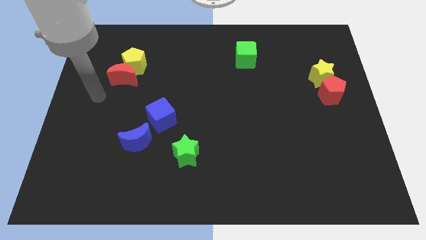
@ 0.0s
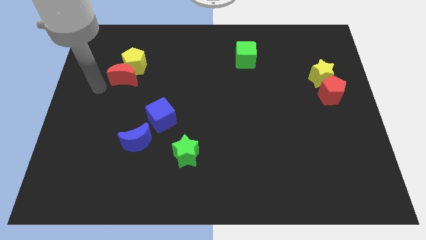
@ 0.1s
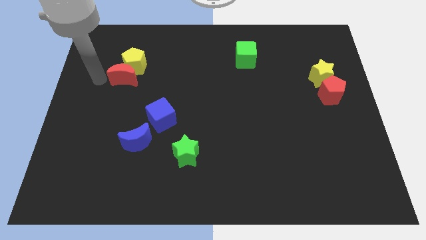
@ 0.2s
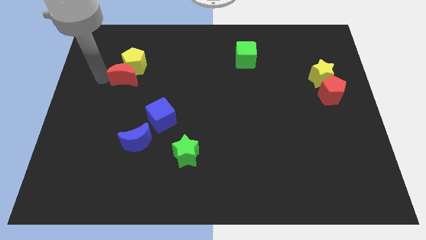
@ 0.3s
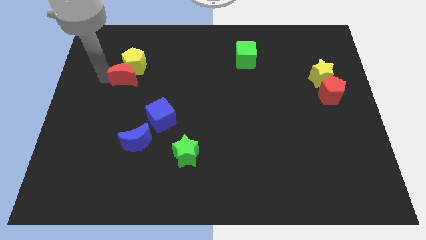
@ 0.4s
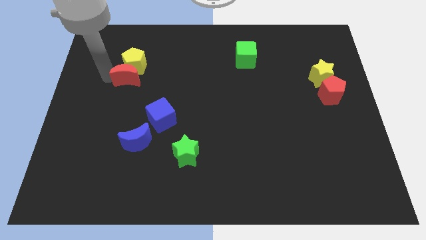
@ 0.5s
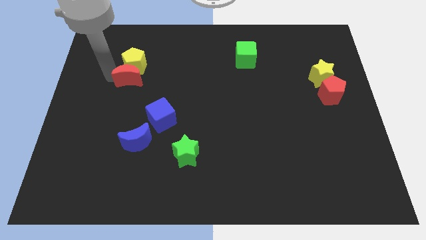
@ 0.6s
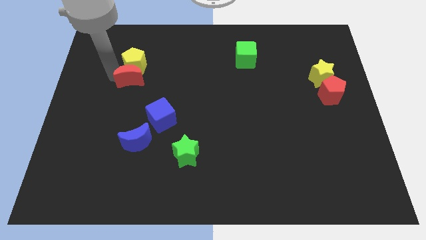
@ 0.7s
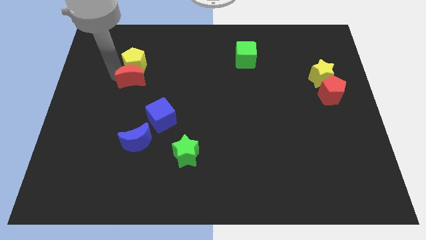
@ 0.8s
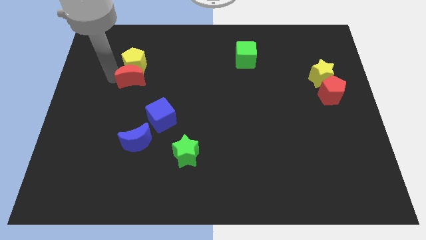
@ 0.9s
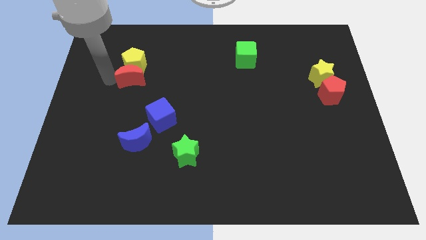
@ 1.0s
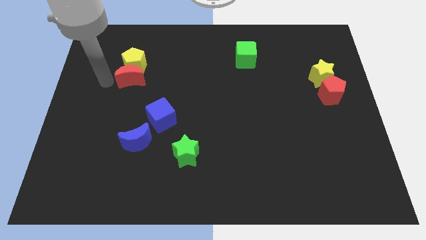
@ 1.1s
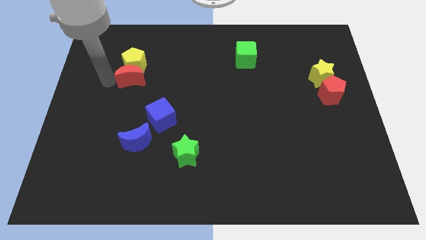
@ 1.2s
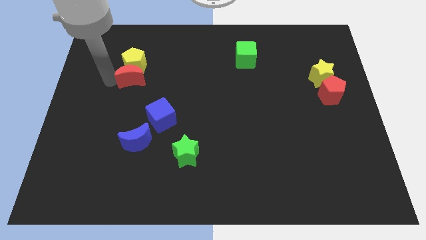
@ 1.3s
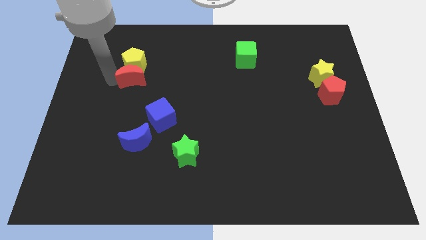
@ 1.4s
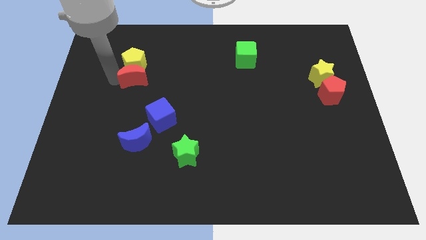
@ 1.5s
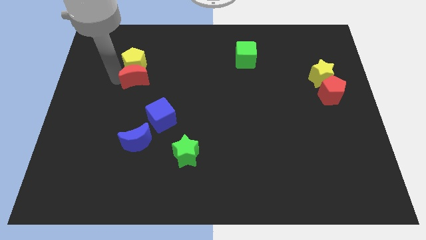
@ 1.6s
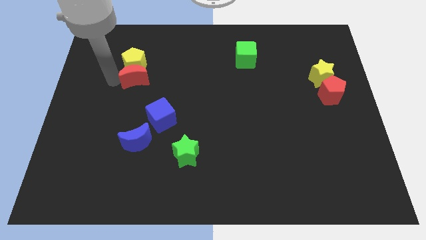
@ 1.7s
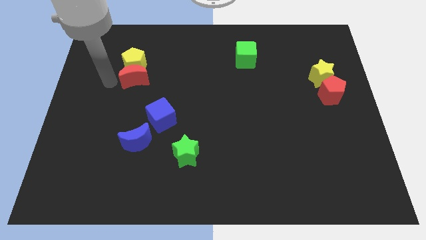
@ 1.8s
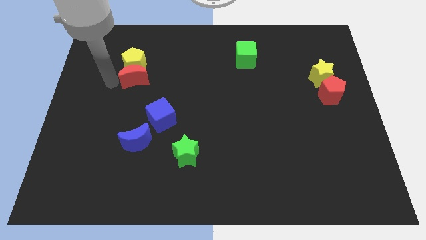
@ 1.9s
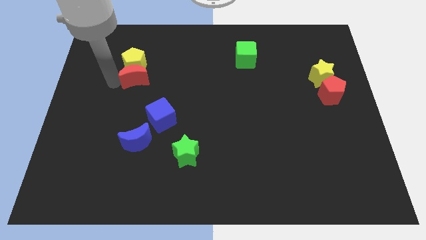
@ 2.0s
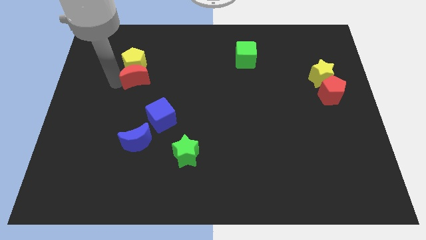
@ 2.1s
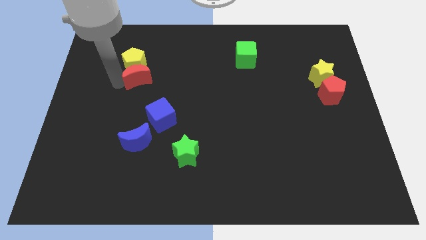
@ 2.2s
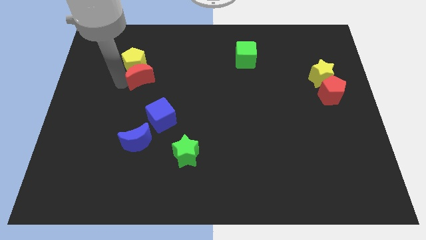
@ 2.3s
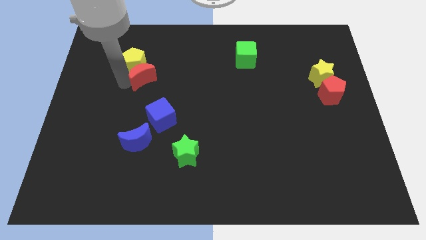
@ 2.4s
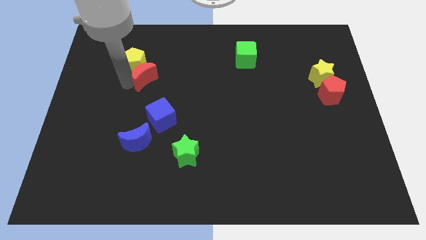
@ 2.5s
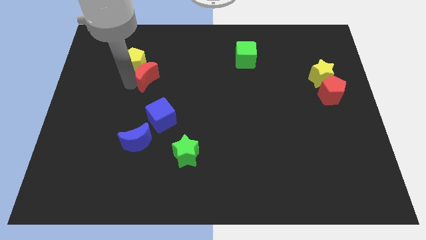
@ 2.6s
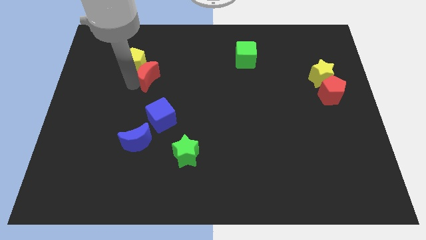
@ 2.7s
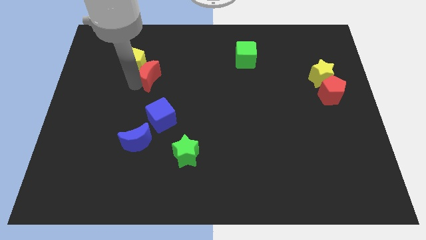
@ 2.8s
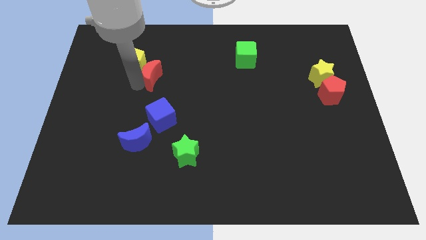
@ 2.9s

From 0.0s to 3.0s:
move the red moon to the right slightly

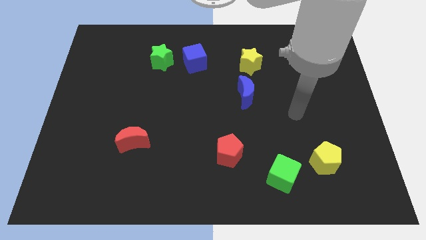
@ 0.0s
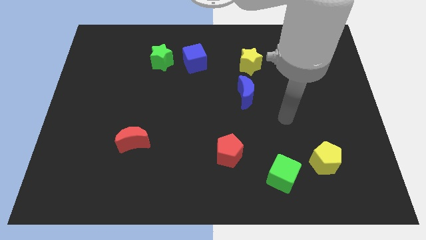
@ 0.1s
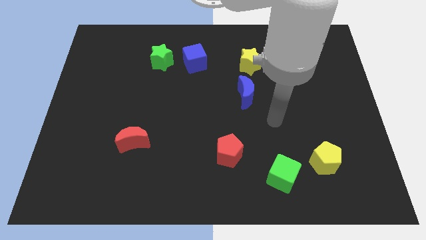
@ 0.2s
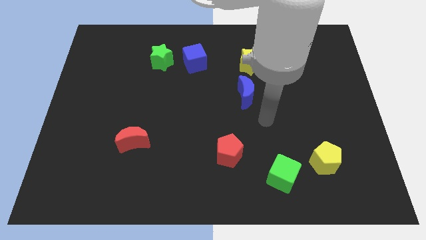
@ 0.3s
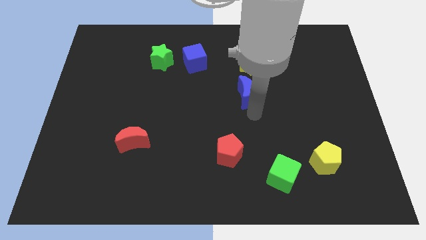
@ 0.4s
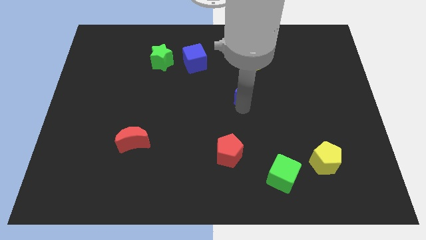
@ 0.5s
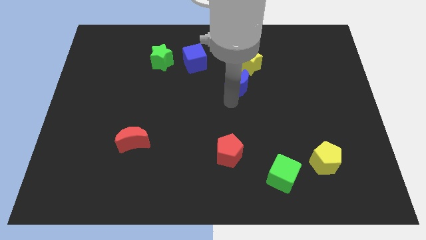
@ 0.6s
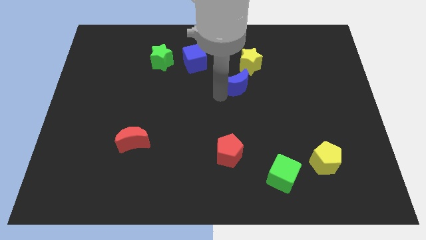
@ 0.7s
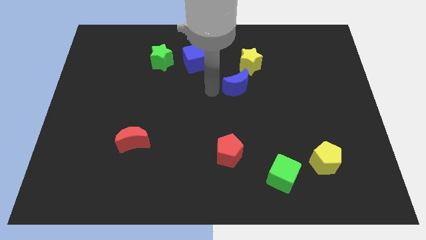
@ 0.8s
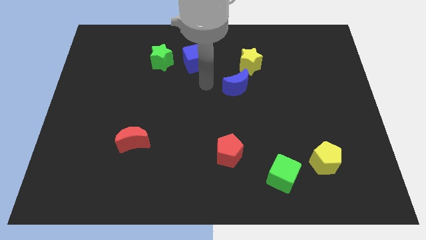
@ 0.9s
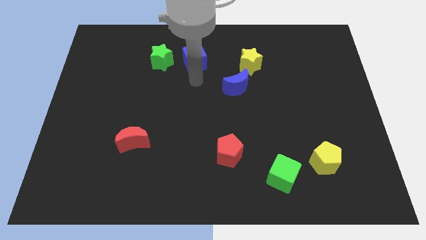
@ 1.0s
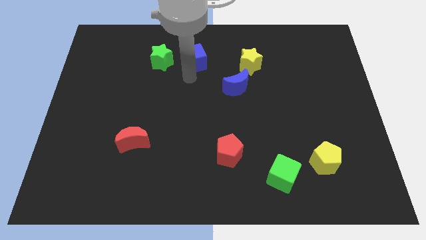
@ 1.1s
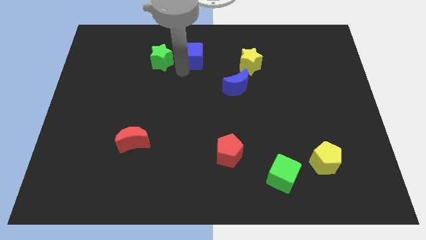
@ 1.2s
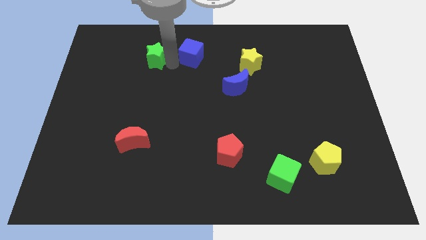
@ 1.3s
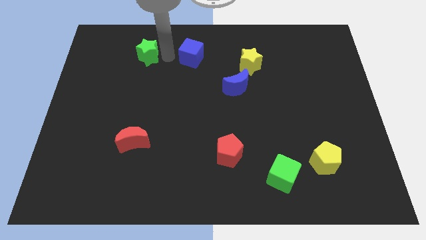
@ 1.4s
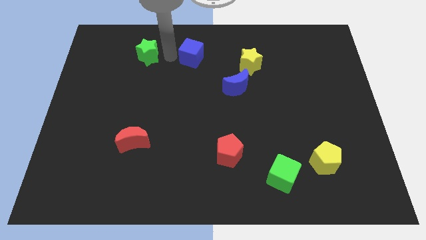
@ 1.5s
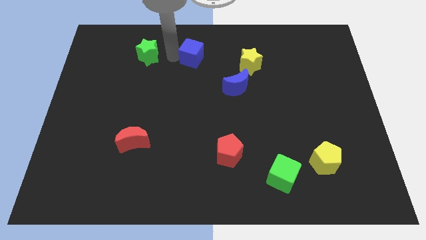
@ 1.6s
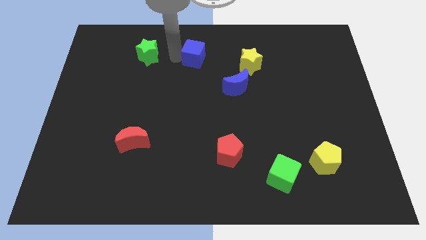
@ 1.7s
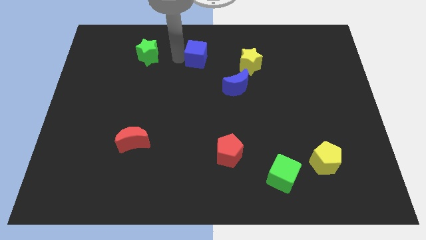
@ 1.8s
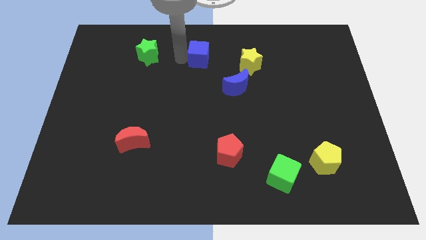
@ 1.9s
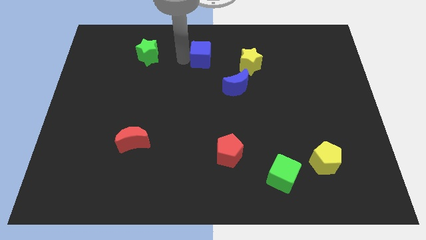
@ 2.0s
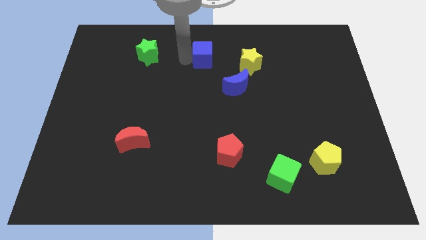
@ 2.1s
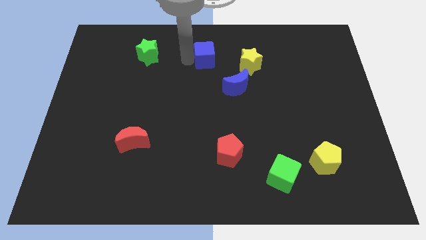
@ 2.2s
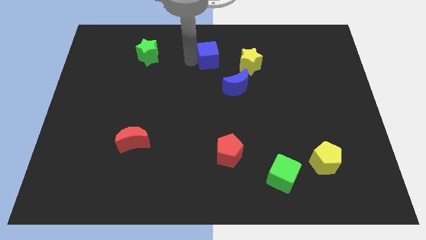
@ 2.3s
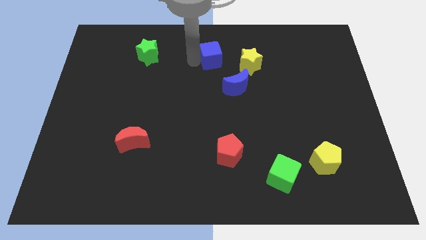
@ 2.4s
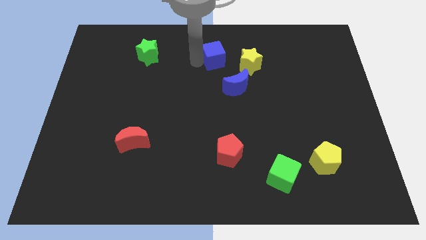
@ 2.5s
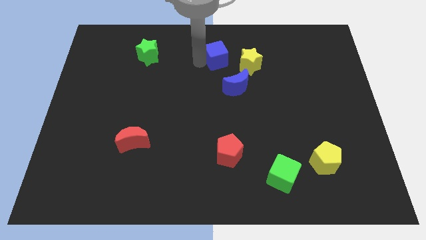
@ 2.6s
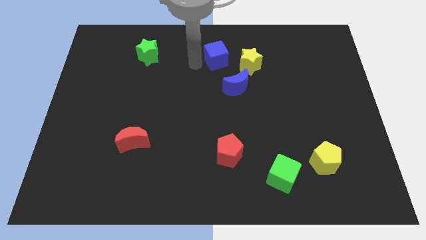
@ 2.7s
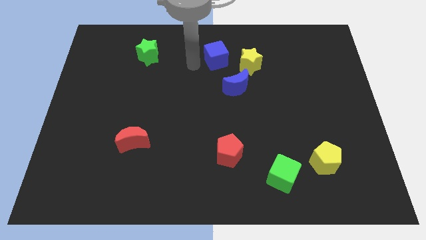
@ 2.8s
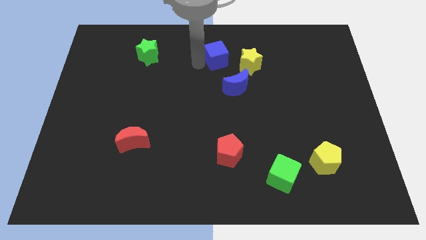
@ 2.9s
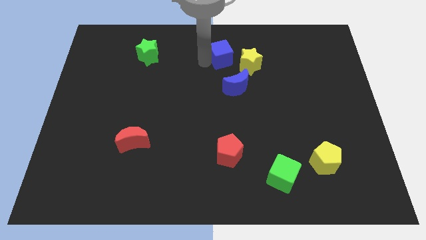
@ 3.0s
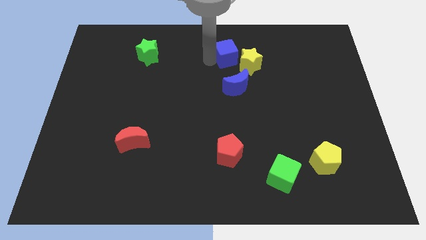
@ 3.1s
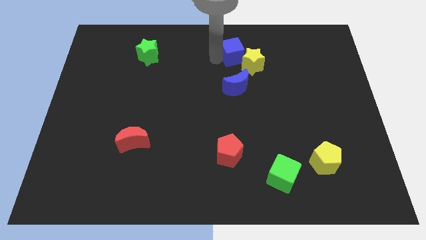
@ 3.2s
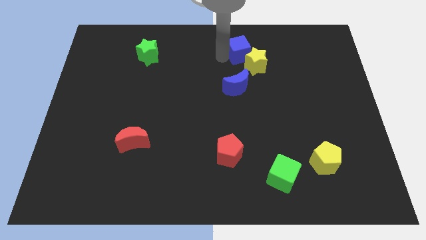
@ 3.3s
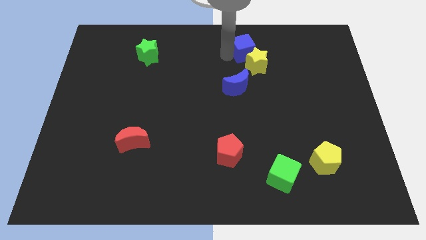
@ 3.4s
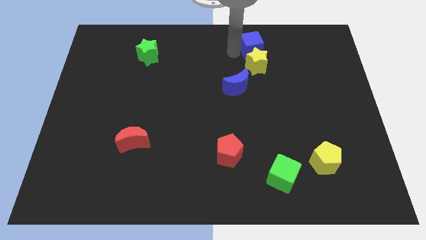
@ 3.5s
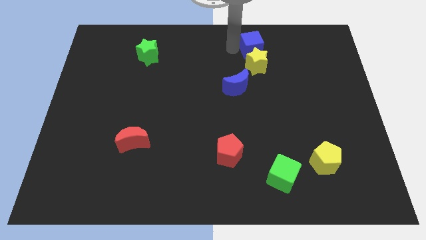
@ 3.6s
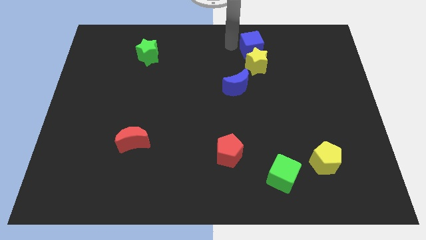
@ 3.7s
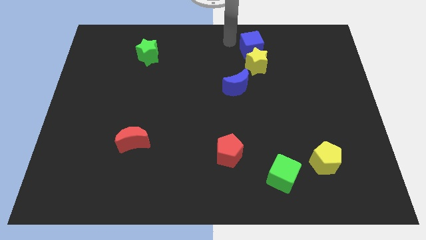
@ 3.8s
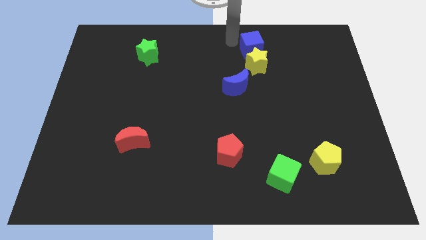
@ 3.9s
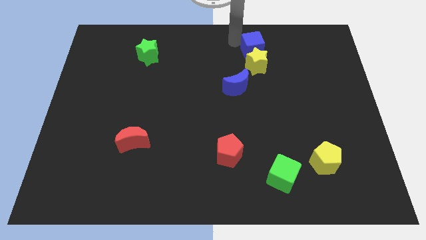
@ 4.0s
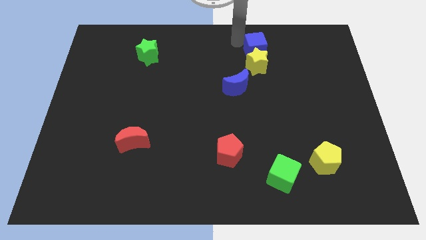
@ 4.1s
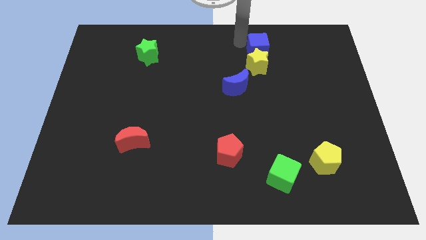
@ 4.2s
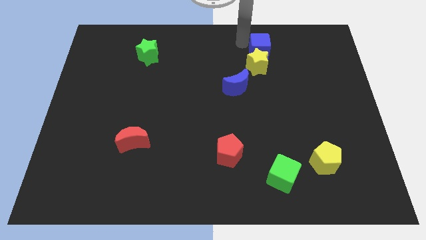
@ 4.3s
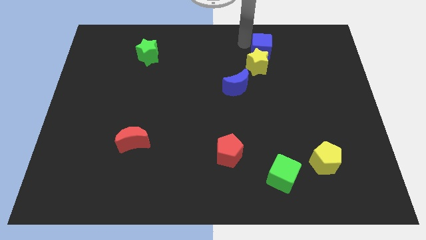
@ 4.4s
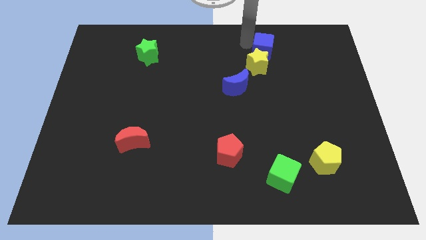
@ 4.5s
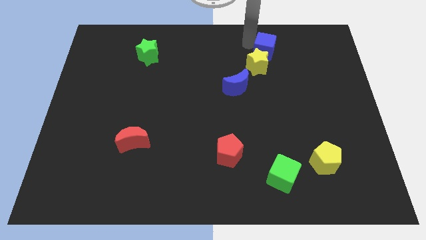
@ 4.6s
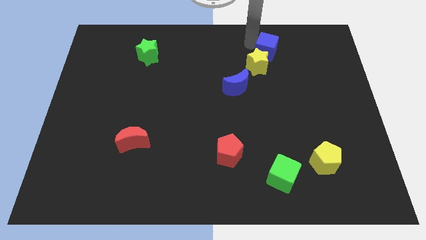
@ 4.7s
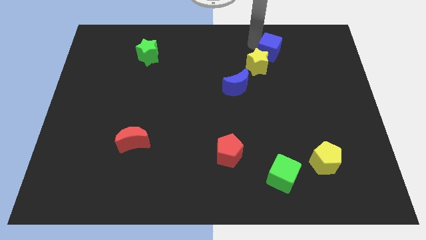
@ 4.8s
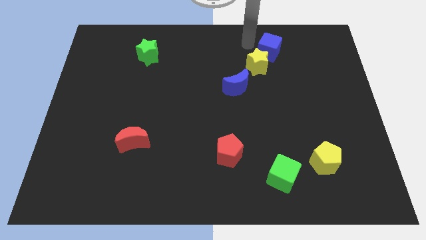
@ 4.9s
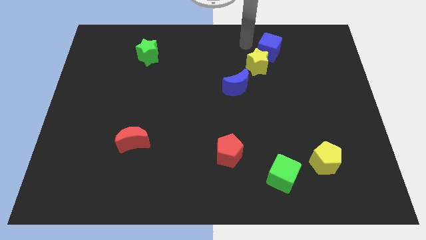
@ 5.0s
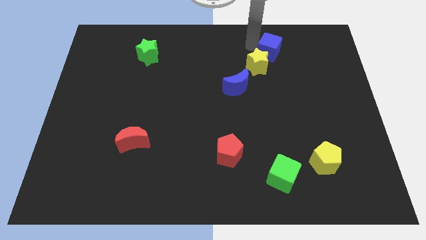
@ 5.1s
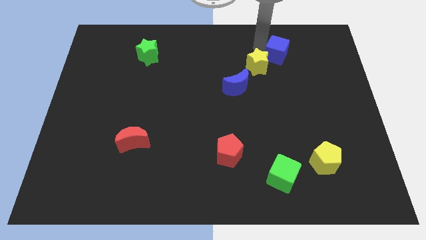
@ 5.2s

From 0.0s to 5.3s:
move the blue cube to the right
